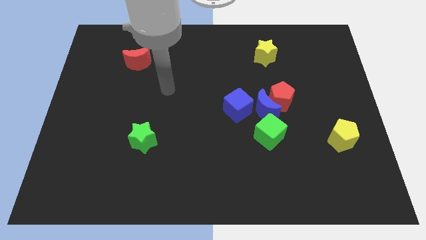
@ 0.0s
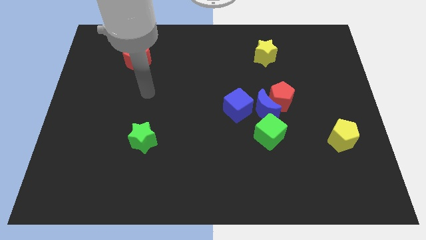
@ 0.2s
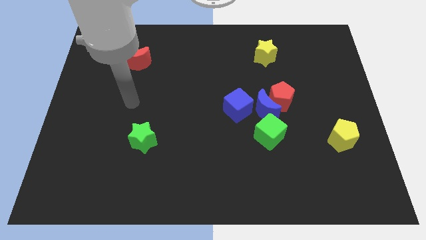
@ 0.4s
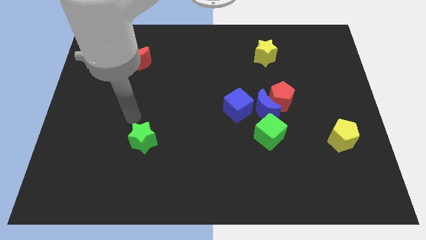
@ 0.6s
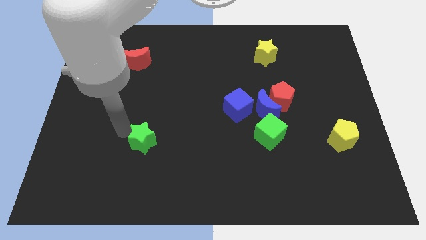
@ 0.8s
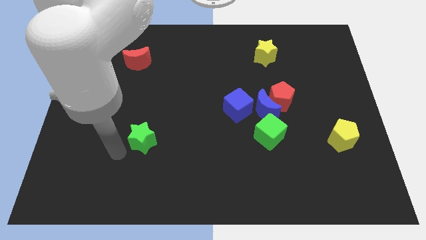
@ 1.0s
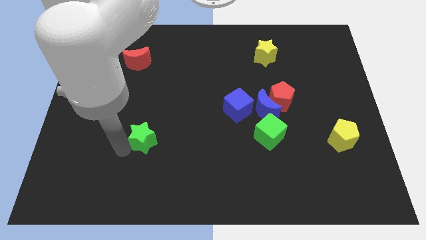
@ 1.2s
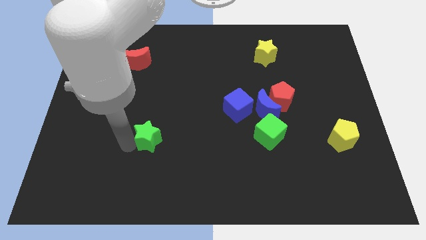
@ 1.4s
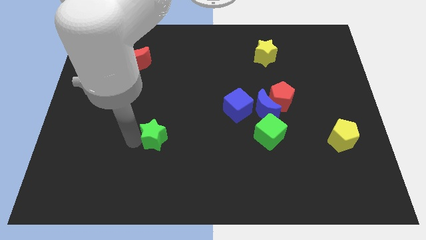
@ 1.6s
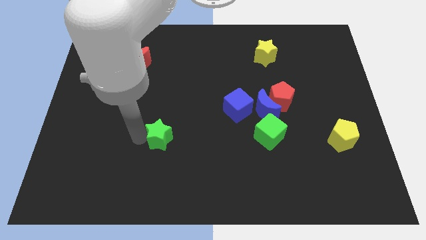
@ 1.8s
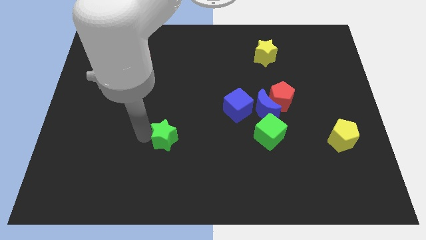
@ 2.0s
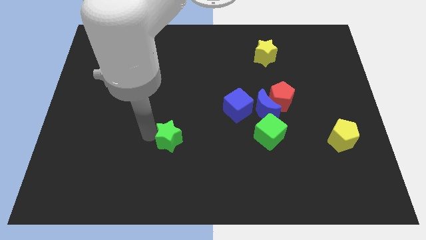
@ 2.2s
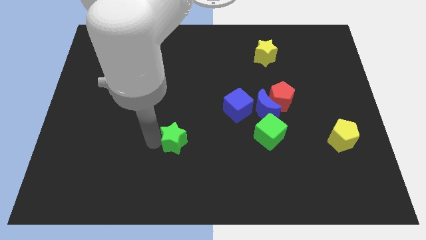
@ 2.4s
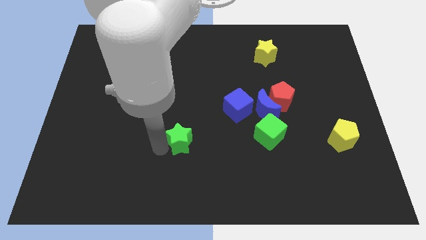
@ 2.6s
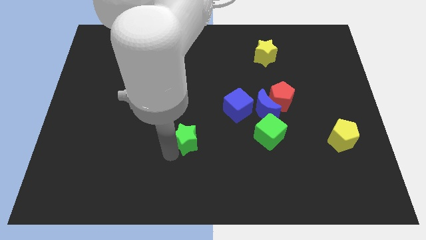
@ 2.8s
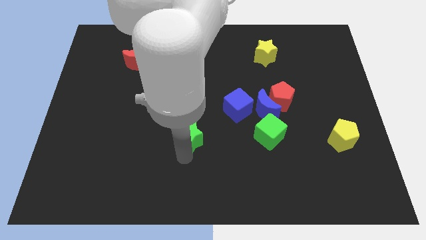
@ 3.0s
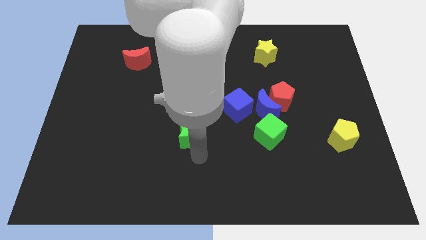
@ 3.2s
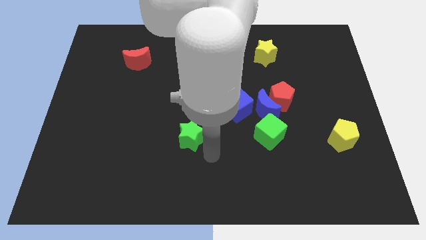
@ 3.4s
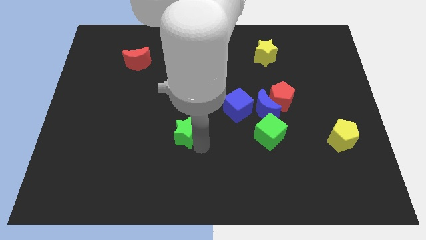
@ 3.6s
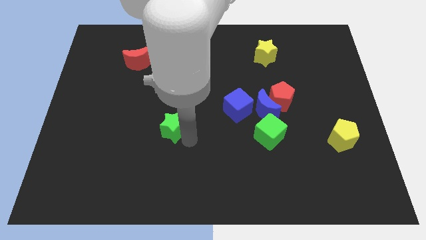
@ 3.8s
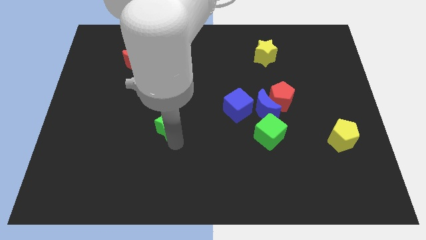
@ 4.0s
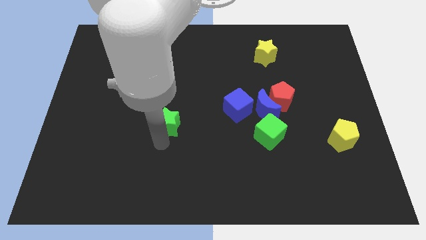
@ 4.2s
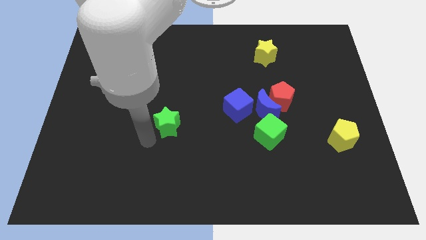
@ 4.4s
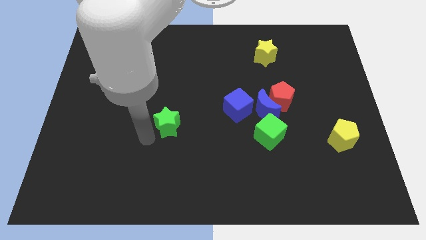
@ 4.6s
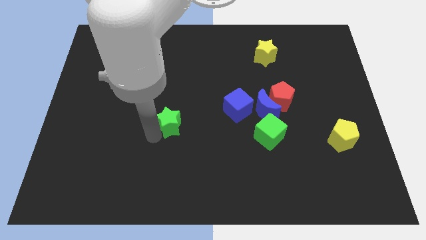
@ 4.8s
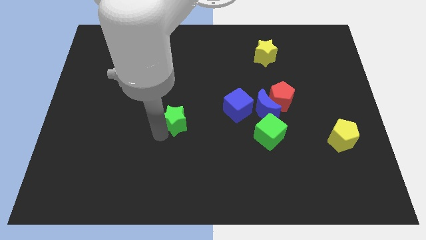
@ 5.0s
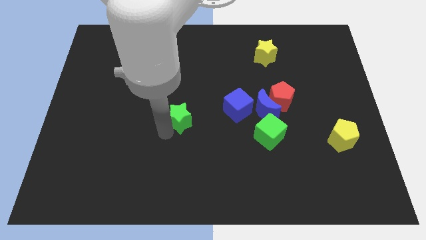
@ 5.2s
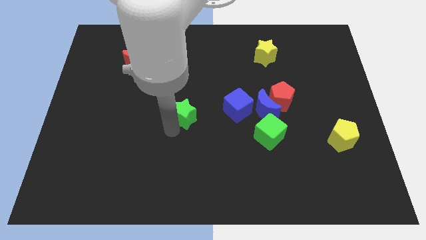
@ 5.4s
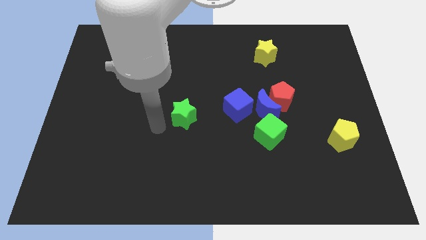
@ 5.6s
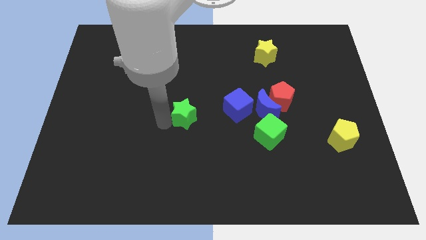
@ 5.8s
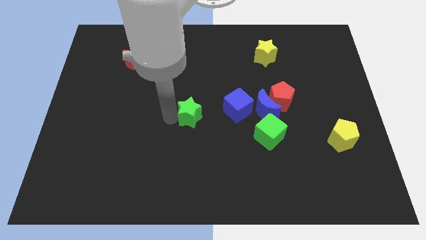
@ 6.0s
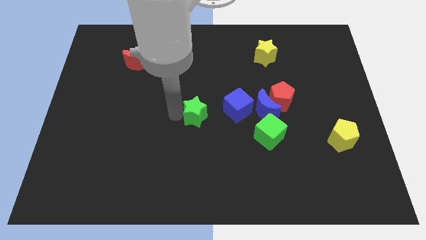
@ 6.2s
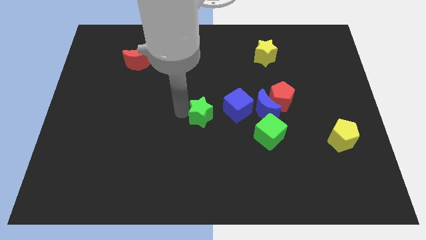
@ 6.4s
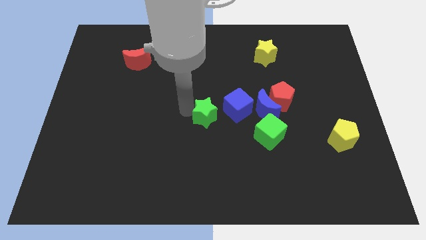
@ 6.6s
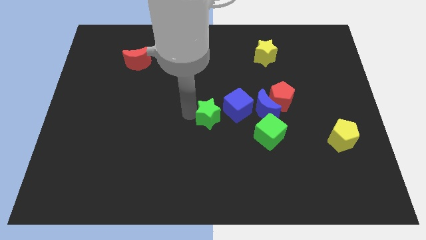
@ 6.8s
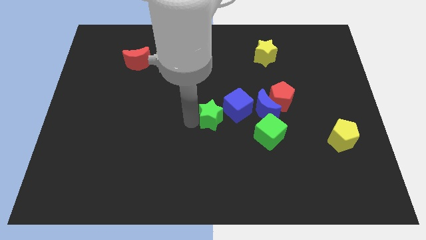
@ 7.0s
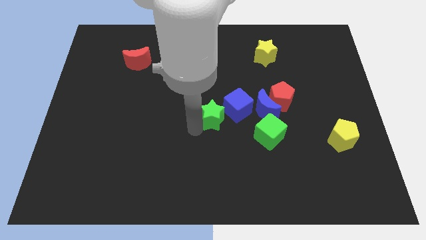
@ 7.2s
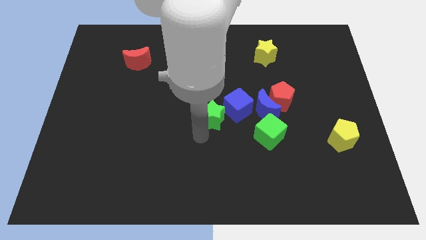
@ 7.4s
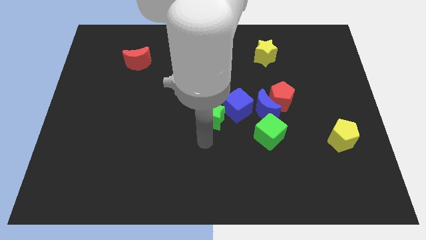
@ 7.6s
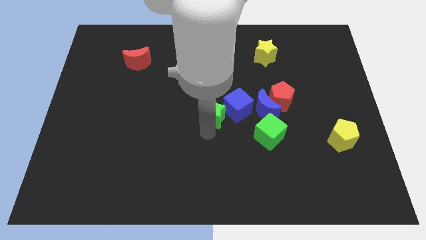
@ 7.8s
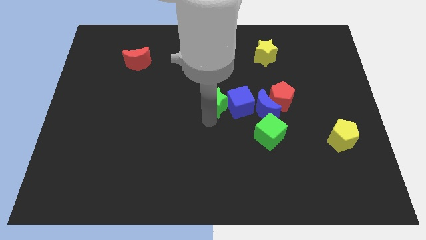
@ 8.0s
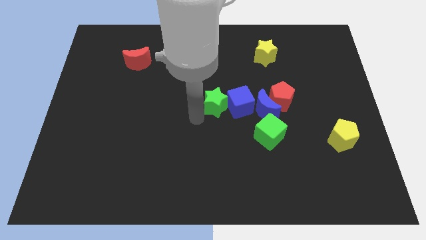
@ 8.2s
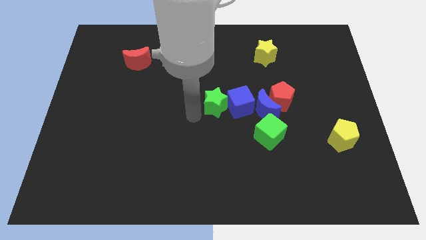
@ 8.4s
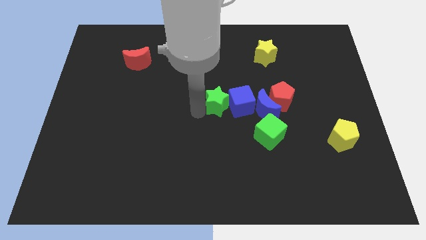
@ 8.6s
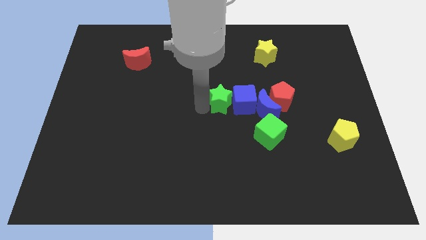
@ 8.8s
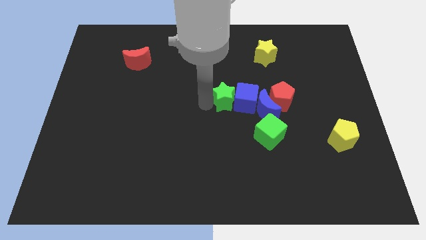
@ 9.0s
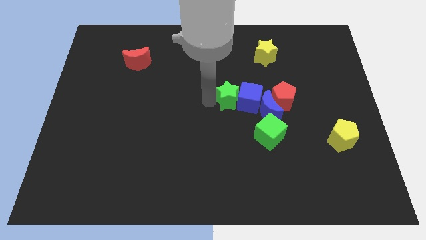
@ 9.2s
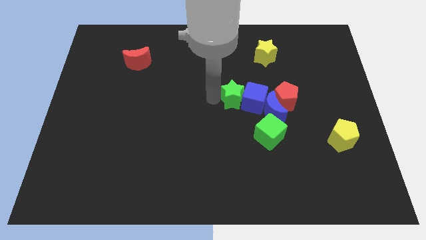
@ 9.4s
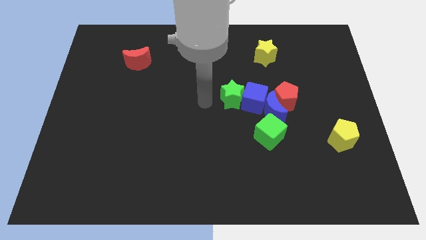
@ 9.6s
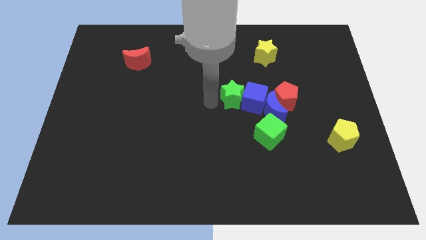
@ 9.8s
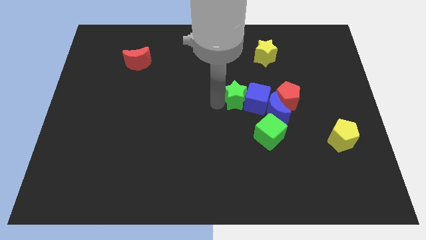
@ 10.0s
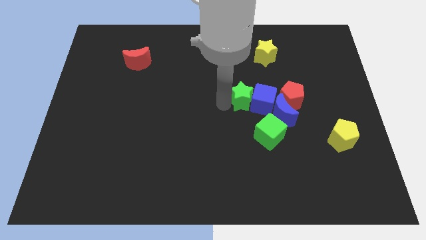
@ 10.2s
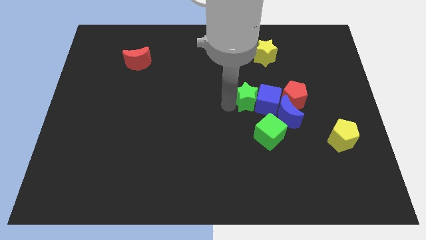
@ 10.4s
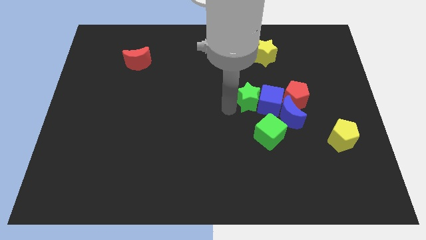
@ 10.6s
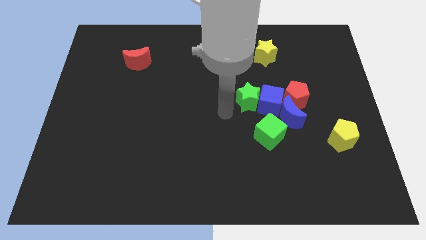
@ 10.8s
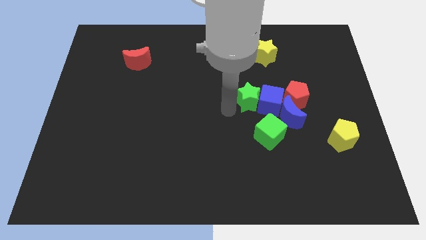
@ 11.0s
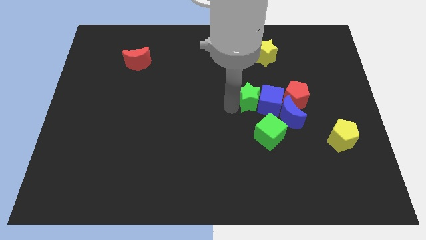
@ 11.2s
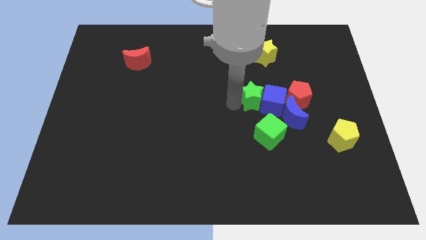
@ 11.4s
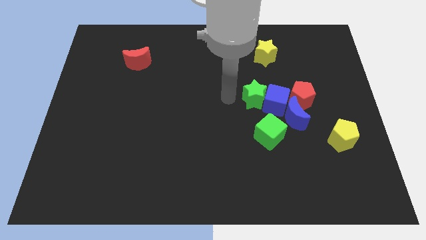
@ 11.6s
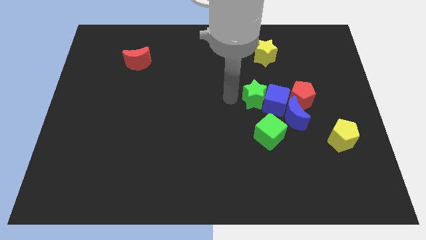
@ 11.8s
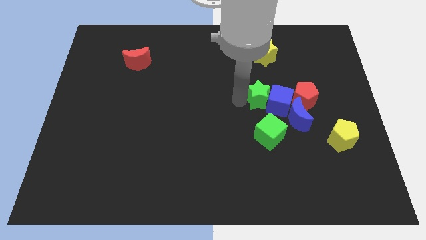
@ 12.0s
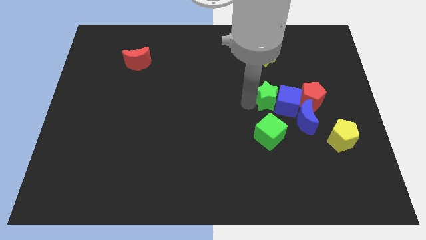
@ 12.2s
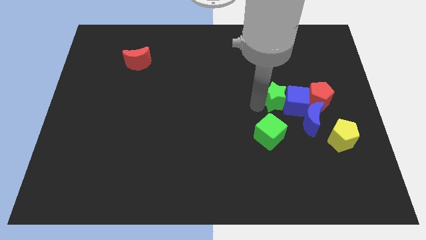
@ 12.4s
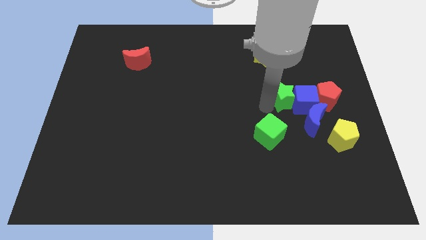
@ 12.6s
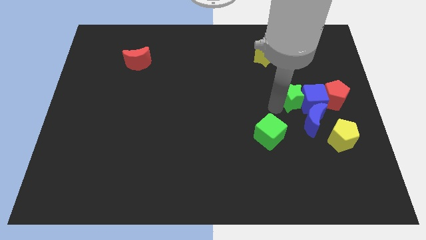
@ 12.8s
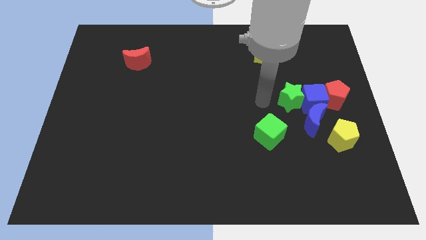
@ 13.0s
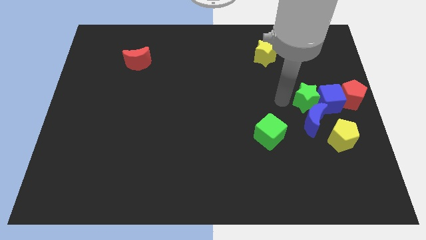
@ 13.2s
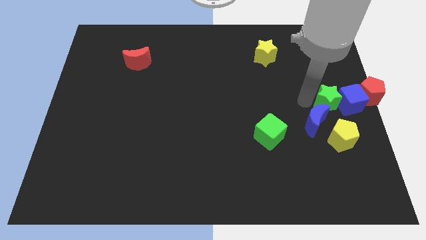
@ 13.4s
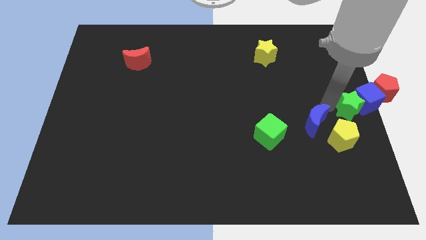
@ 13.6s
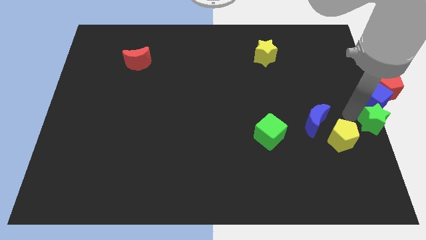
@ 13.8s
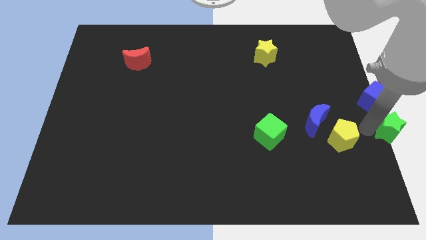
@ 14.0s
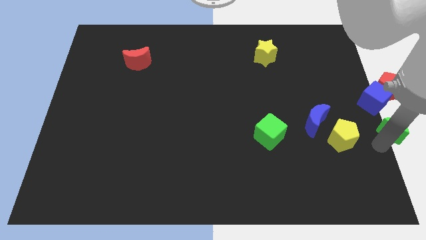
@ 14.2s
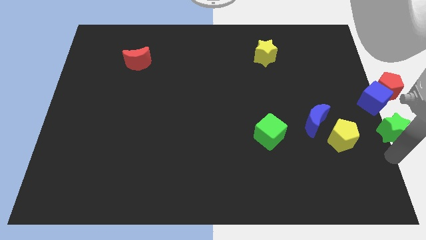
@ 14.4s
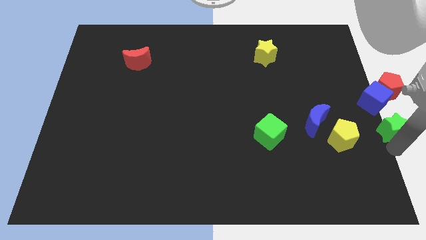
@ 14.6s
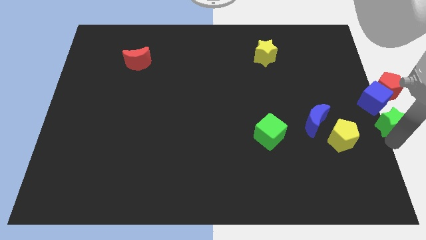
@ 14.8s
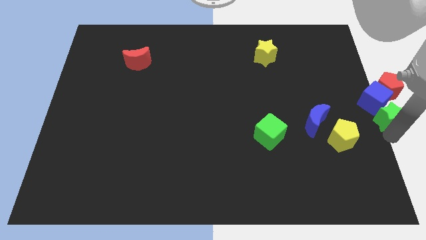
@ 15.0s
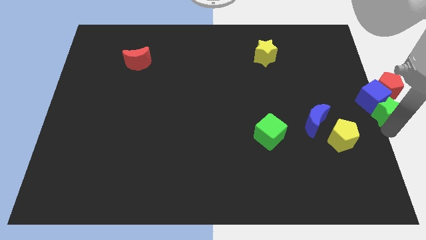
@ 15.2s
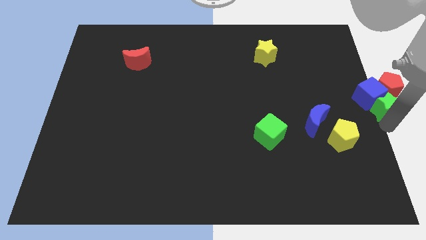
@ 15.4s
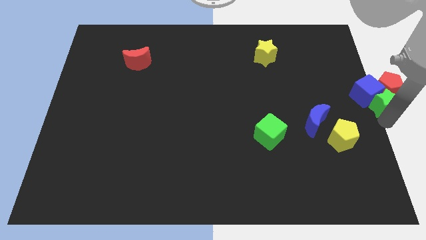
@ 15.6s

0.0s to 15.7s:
move the green star towards the red pentagon

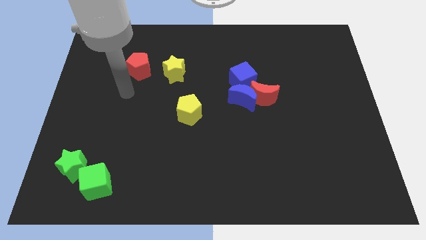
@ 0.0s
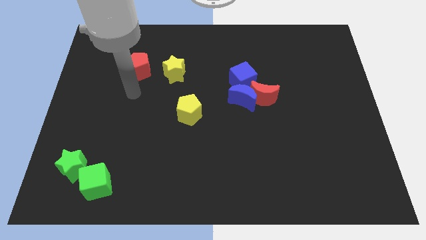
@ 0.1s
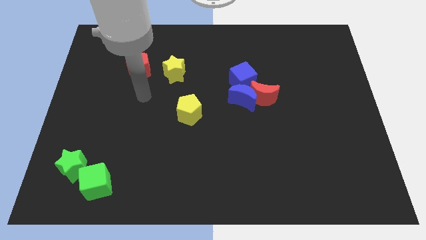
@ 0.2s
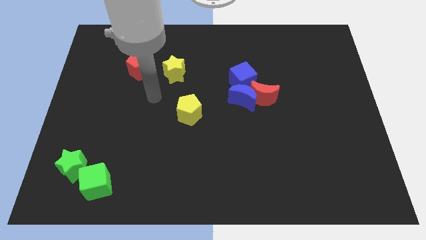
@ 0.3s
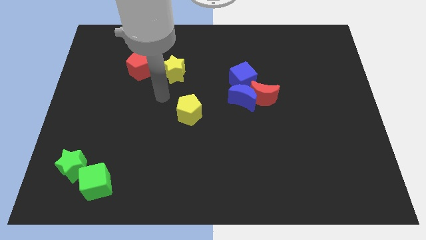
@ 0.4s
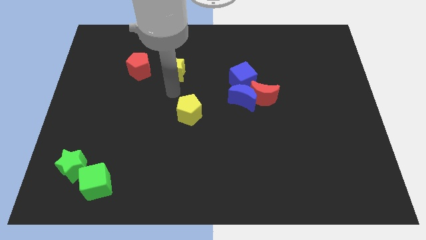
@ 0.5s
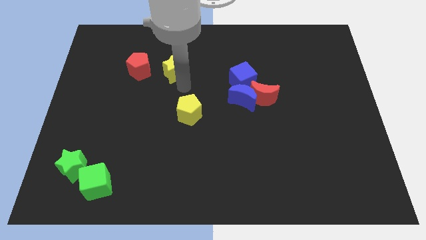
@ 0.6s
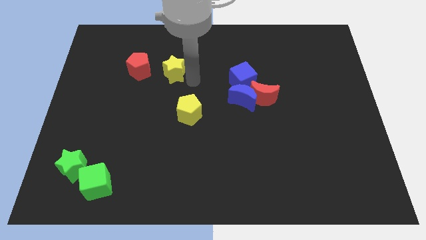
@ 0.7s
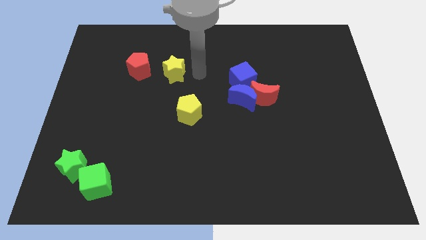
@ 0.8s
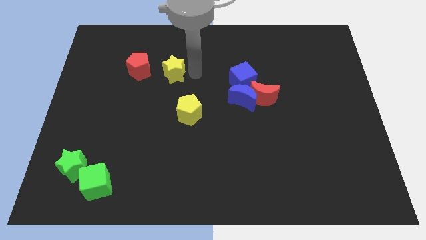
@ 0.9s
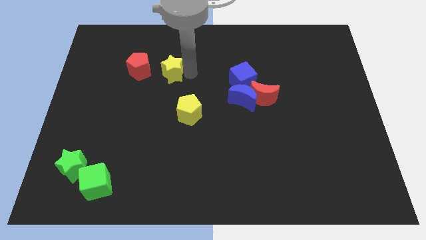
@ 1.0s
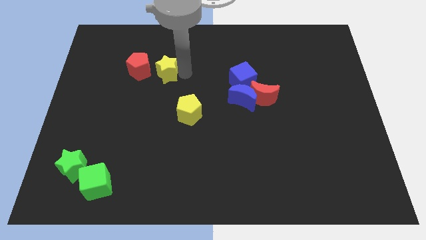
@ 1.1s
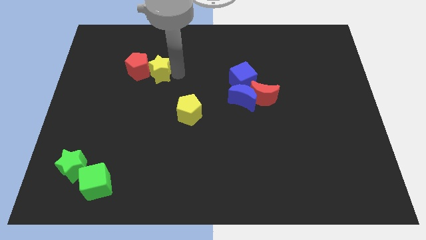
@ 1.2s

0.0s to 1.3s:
move the yellow star close to the red pentagon
